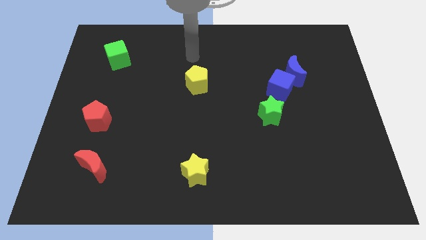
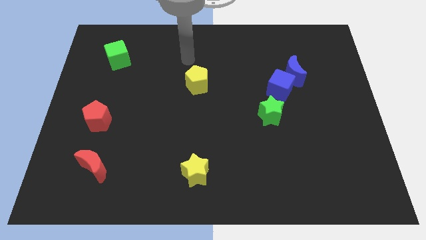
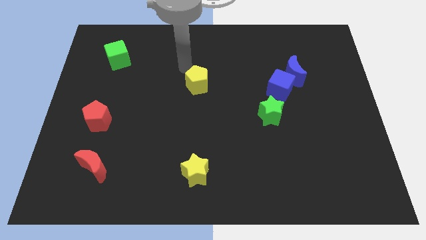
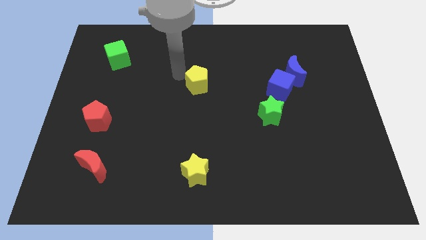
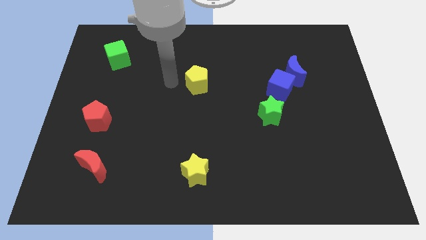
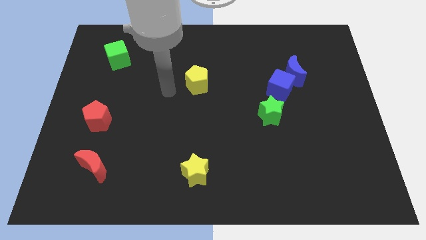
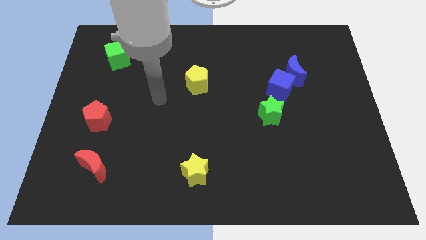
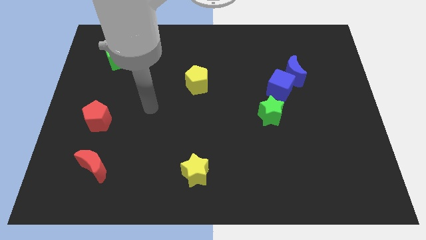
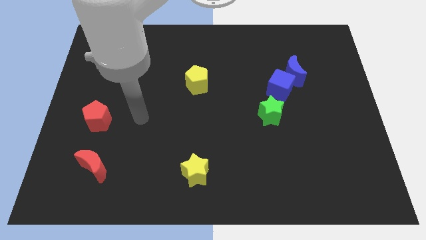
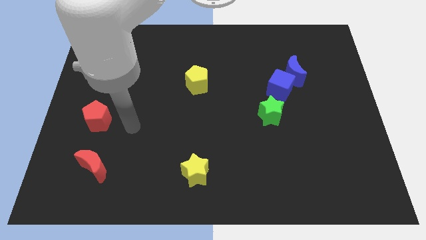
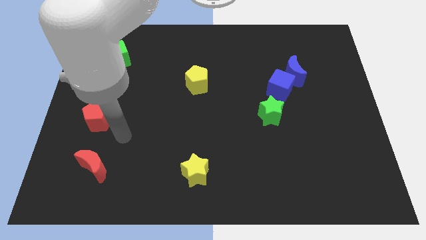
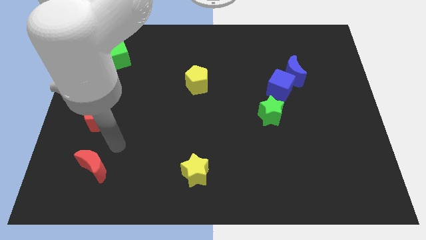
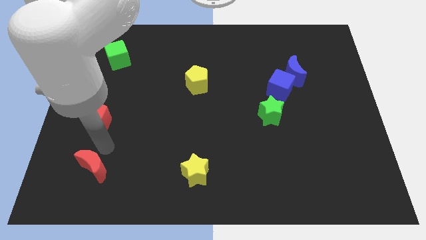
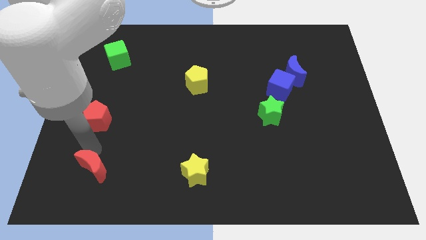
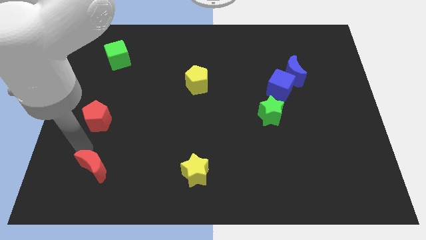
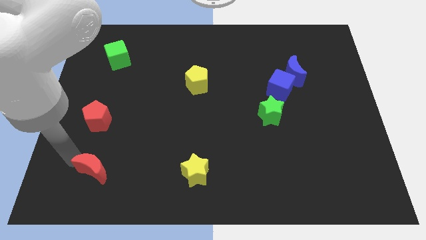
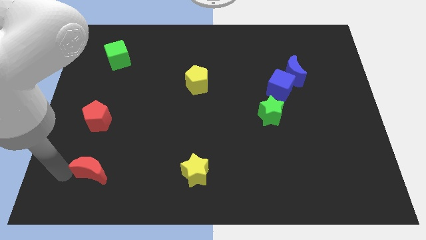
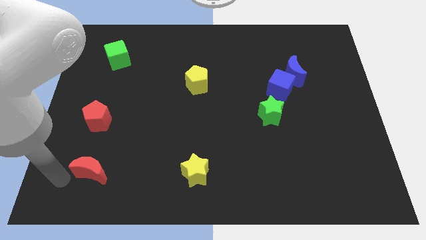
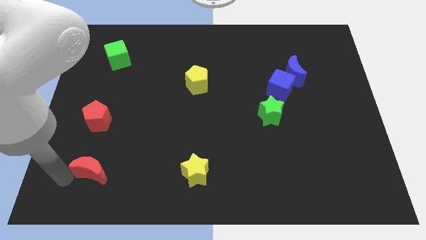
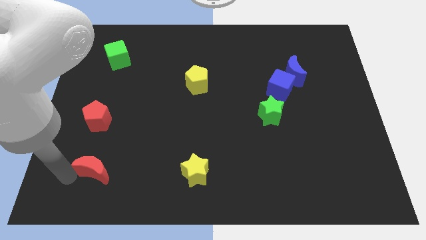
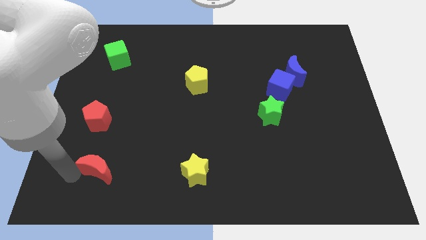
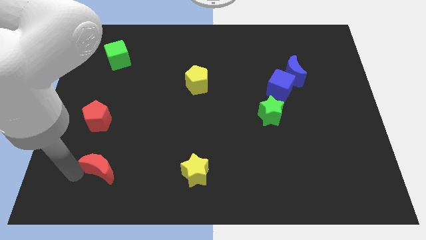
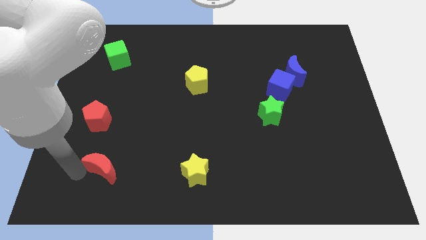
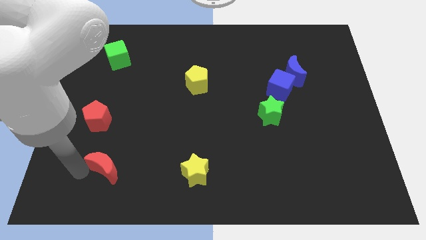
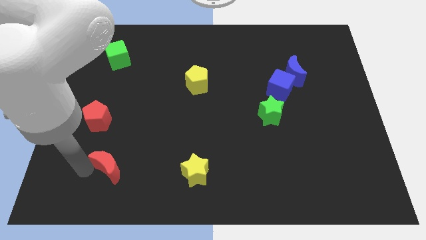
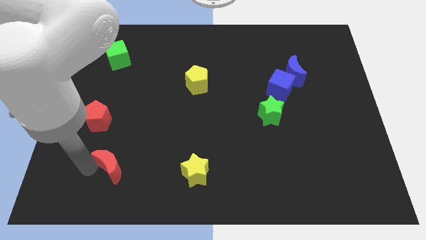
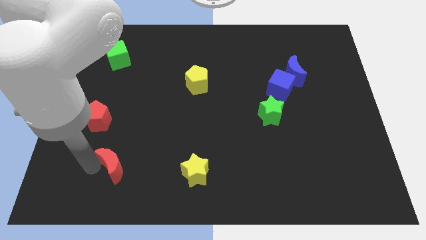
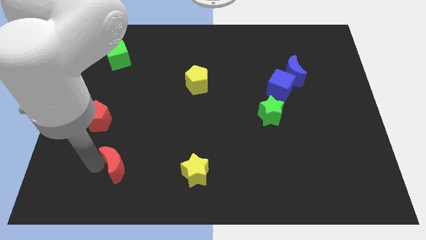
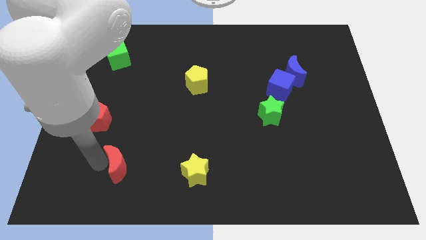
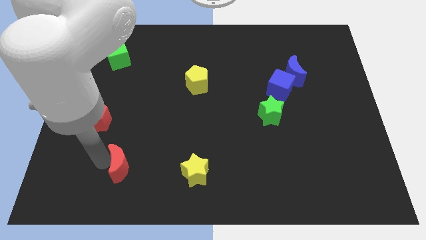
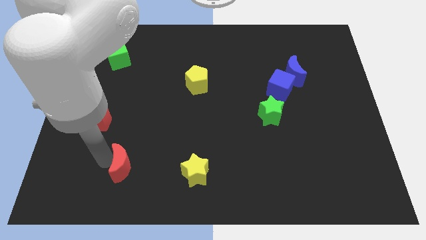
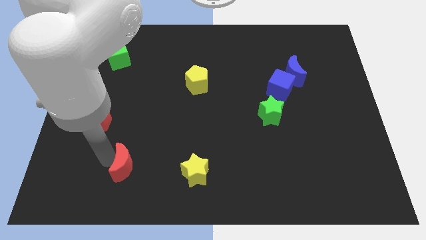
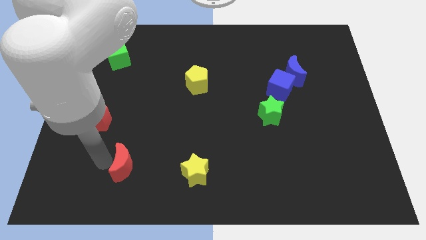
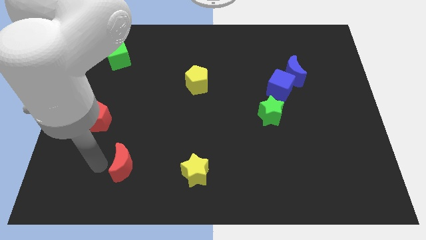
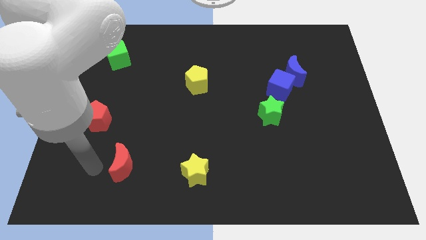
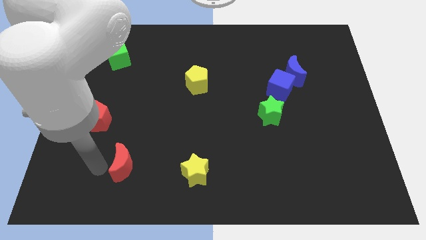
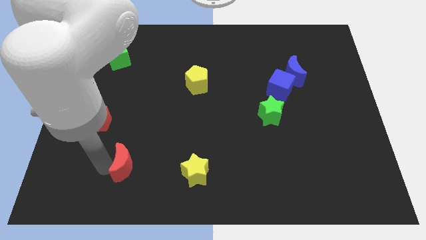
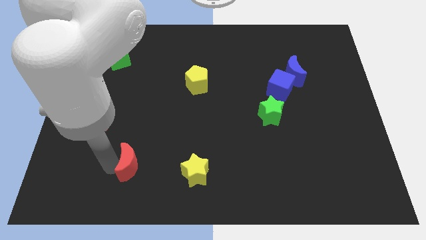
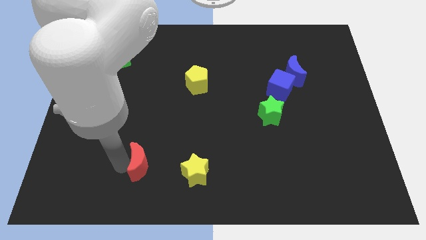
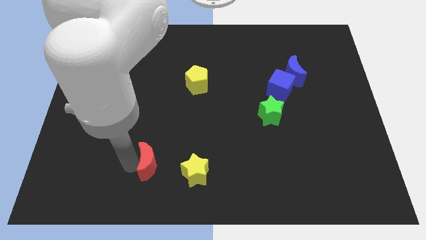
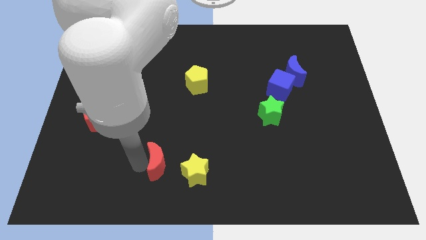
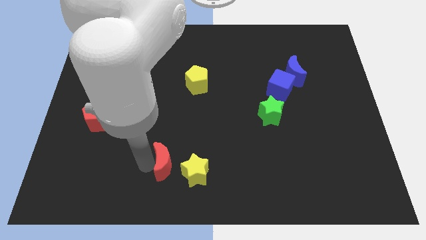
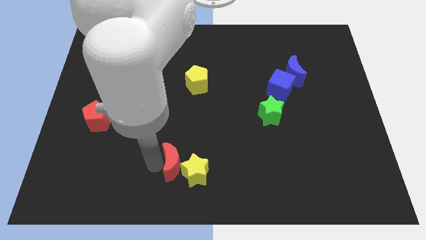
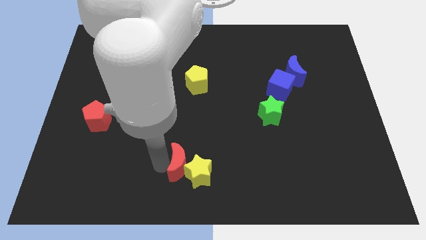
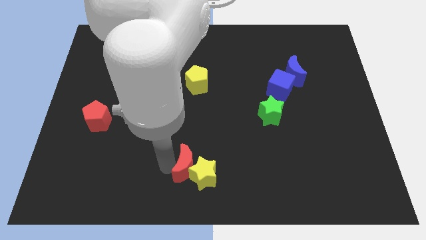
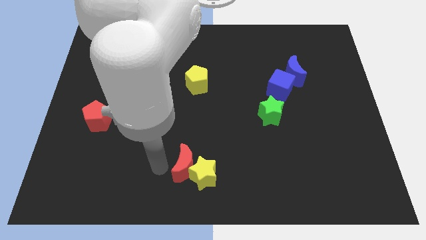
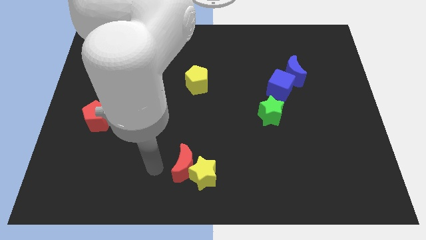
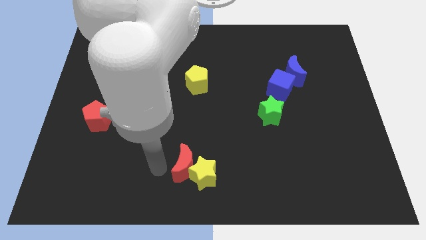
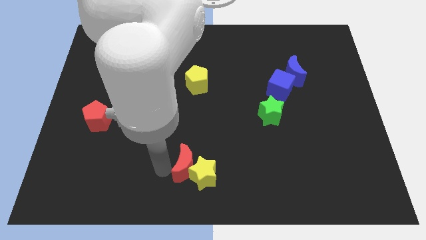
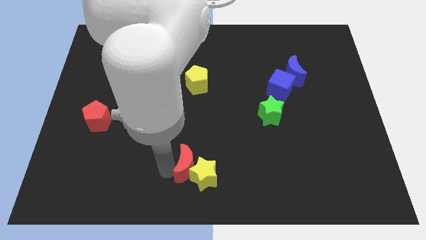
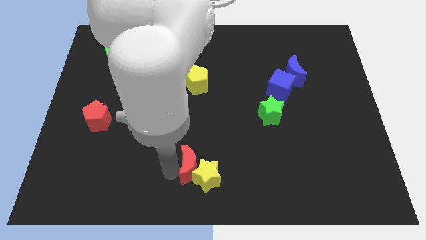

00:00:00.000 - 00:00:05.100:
push the red moon to the right

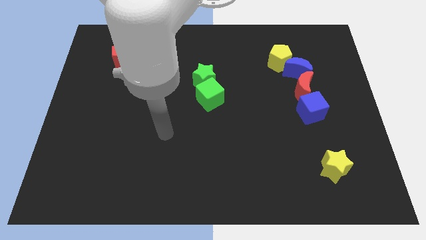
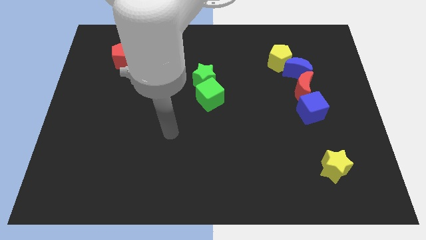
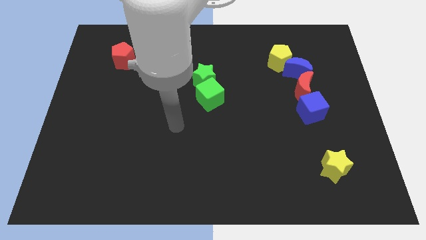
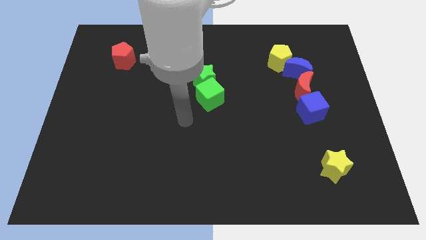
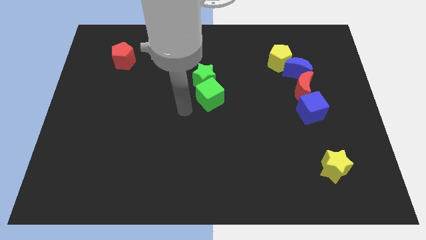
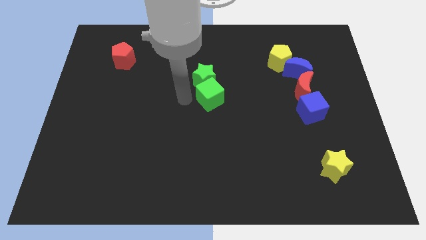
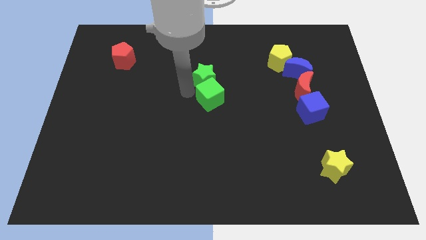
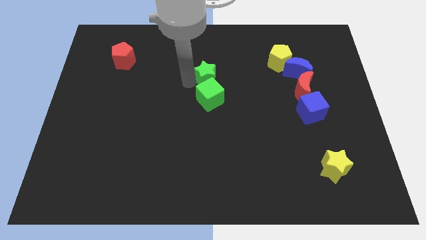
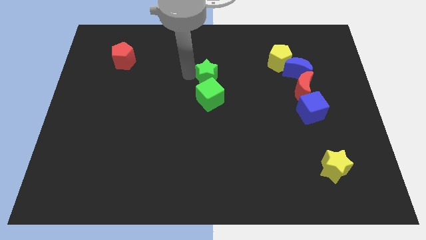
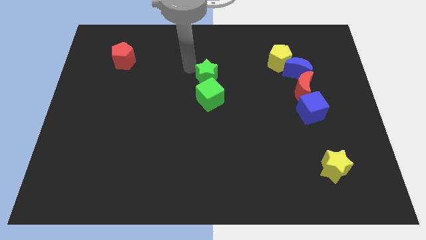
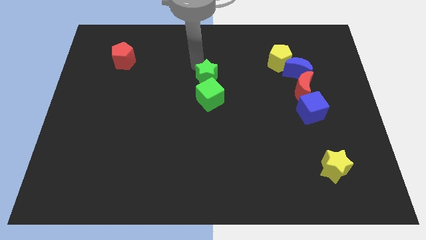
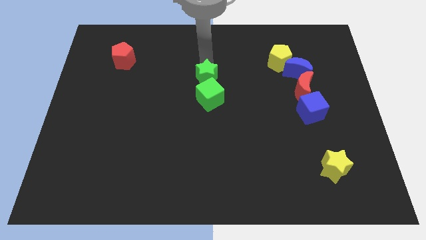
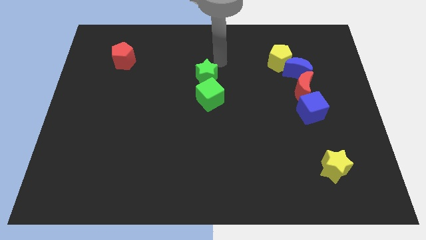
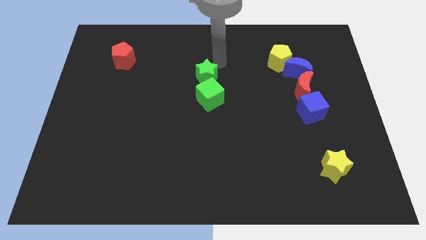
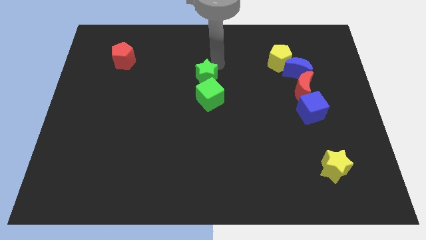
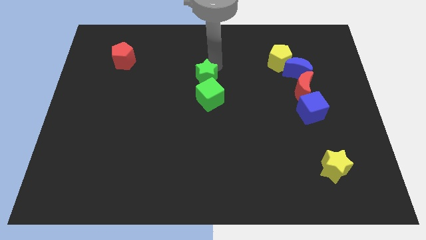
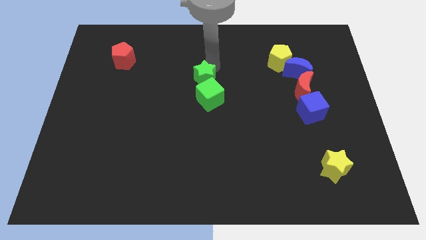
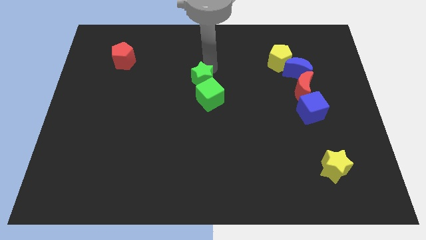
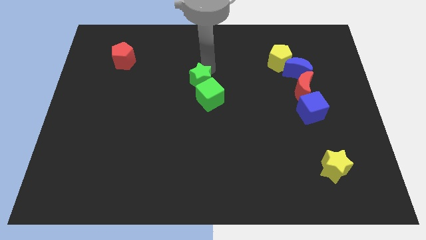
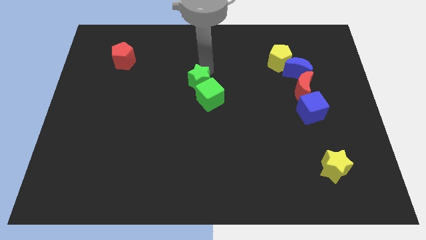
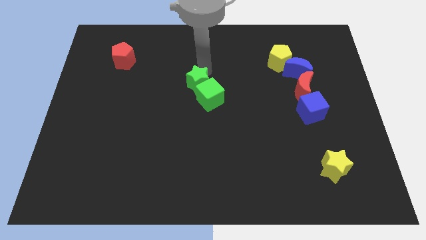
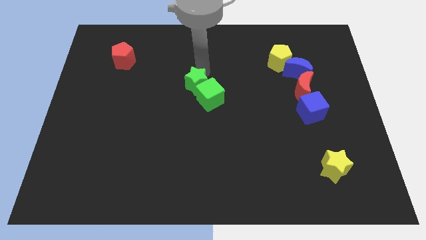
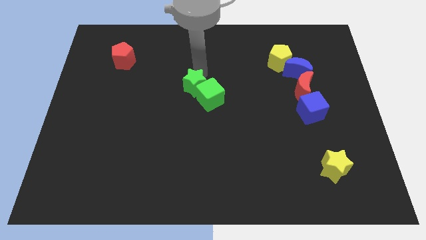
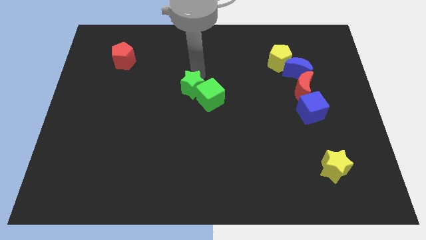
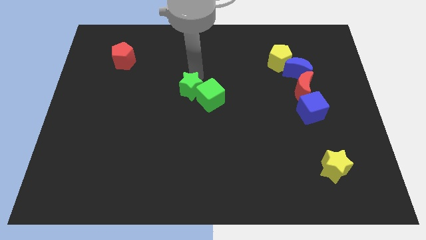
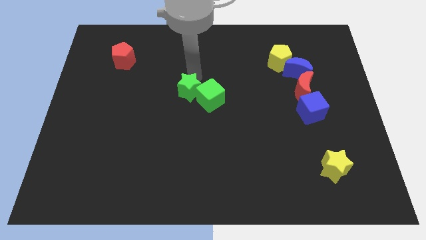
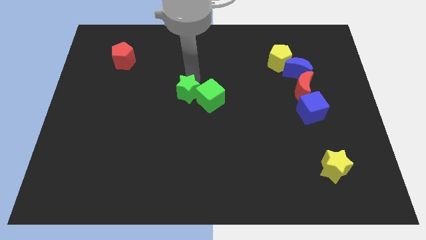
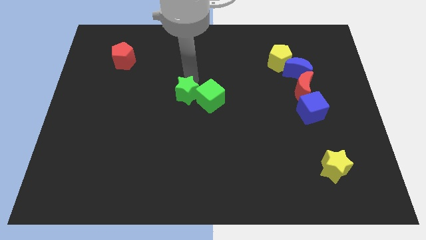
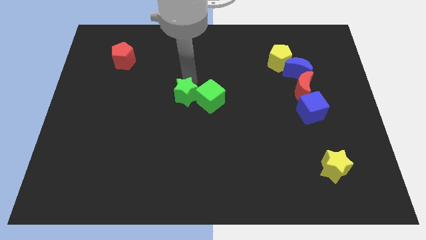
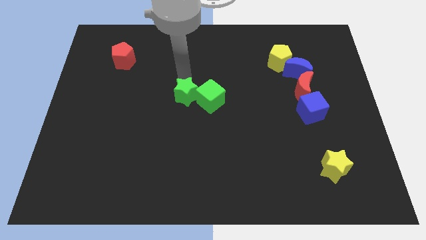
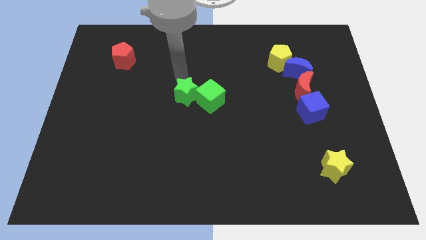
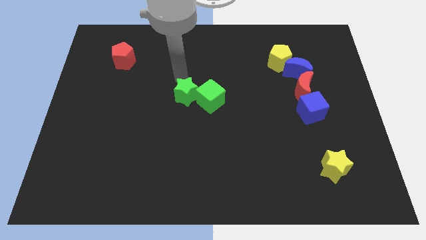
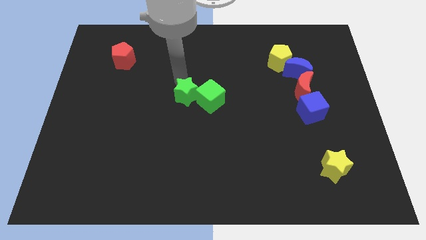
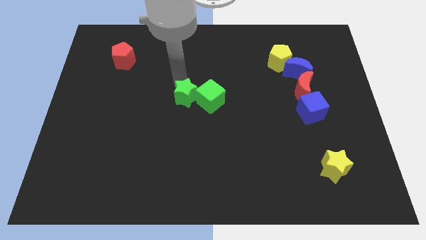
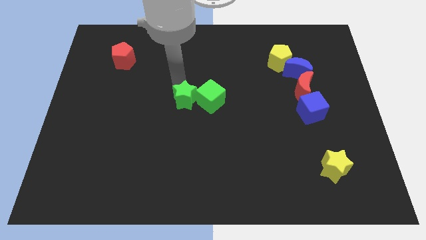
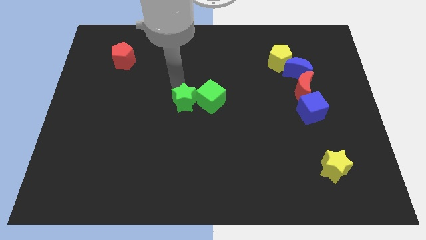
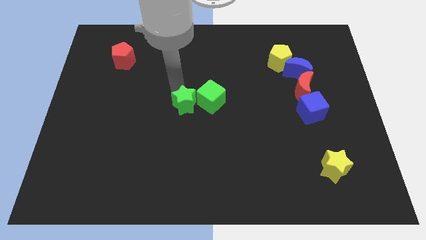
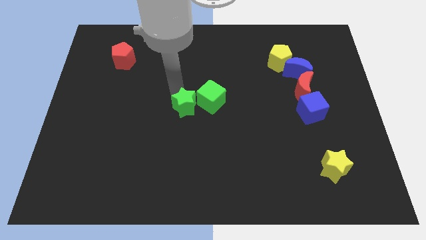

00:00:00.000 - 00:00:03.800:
slide the green star downwards a little
